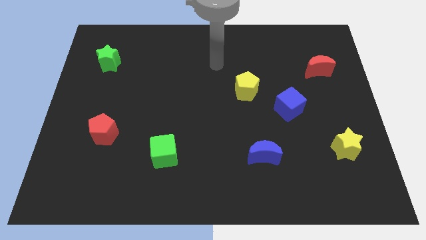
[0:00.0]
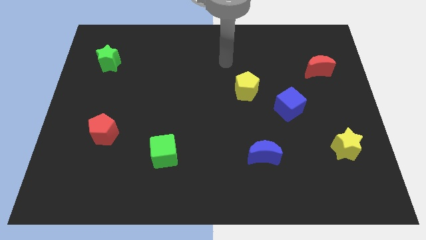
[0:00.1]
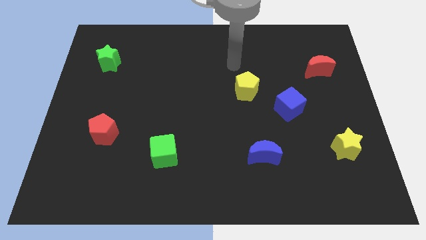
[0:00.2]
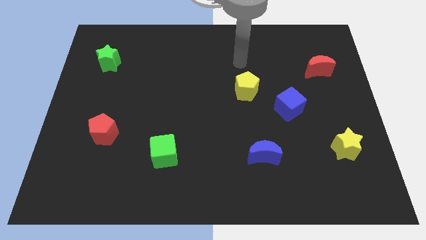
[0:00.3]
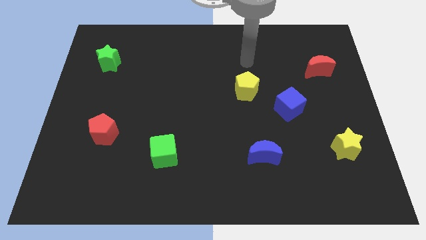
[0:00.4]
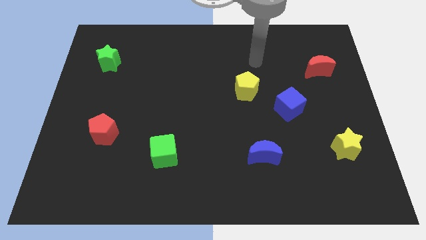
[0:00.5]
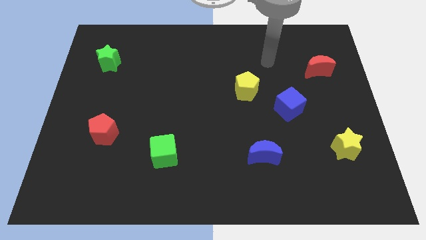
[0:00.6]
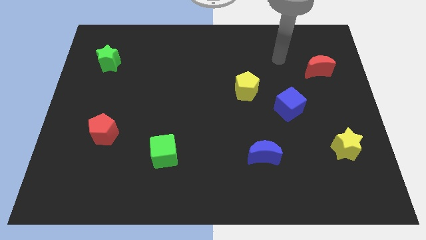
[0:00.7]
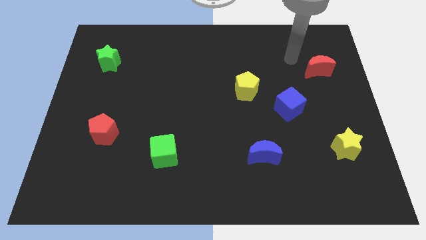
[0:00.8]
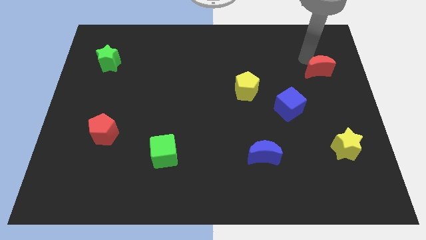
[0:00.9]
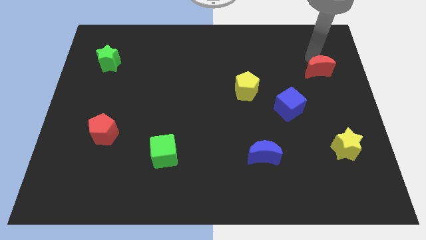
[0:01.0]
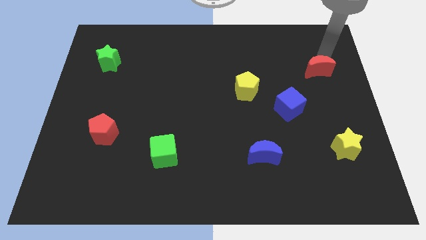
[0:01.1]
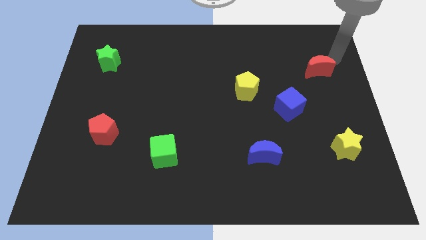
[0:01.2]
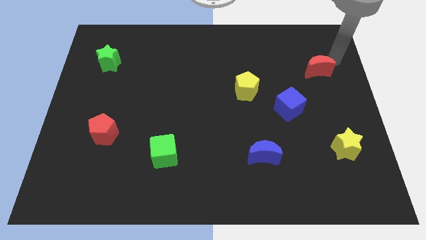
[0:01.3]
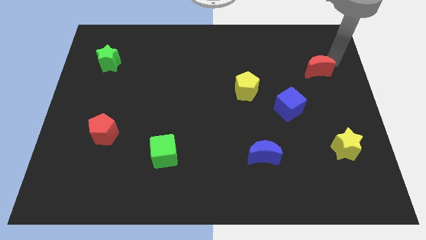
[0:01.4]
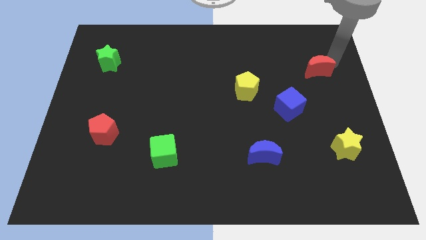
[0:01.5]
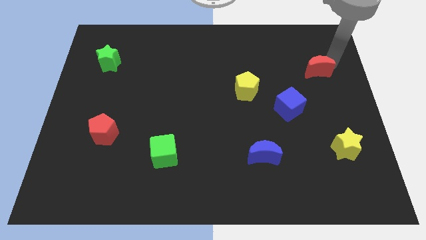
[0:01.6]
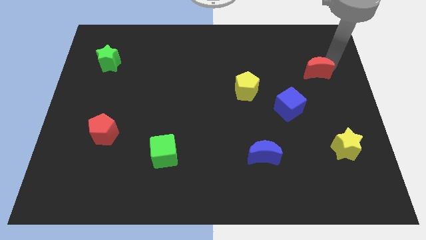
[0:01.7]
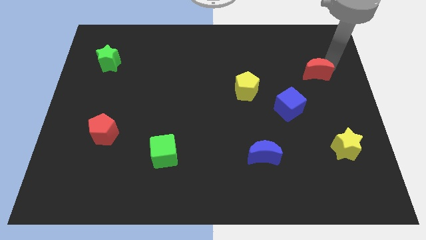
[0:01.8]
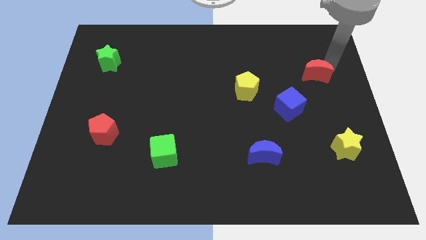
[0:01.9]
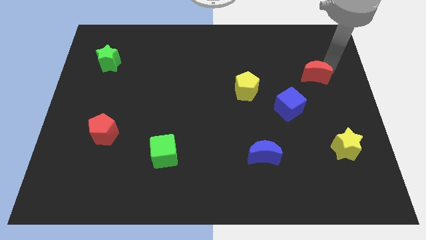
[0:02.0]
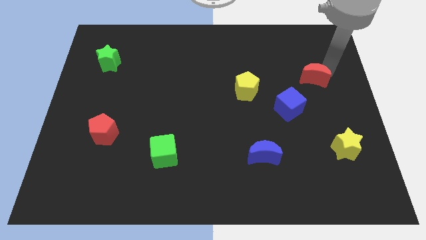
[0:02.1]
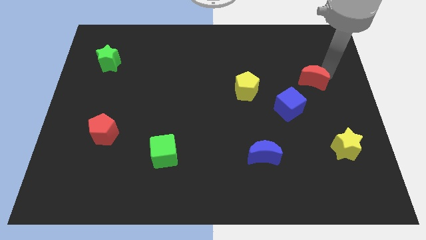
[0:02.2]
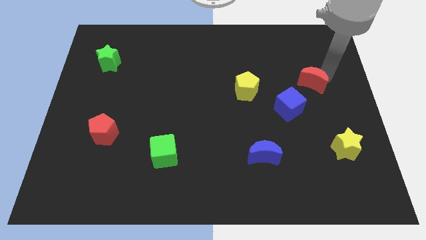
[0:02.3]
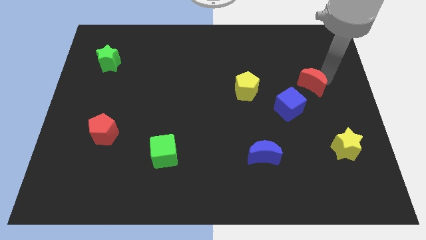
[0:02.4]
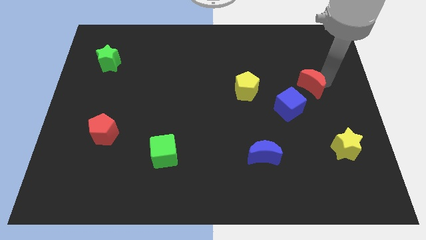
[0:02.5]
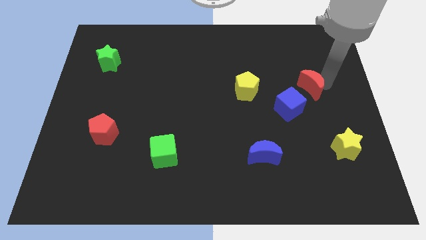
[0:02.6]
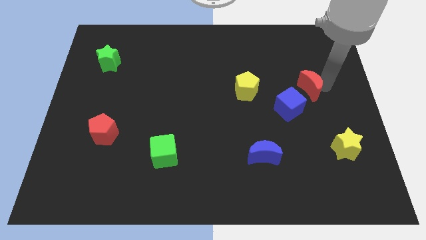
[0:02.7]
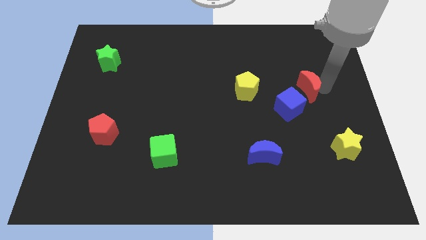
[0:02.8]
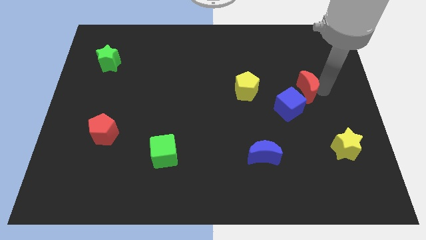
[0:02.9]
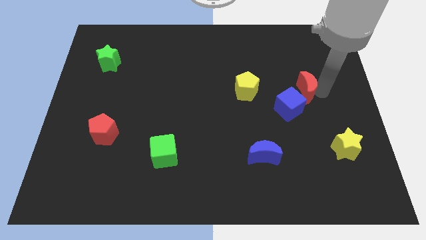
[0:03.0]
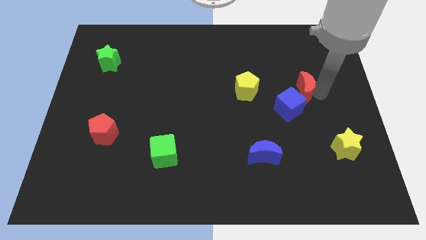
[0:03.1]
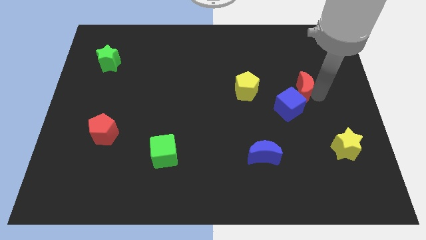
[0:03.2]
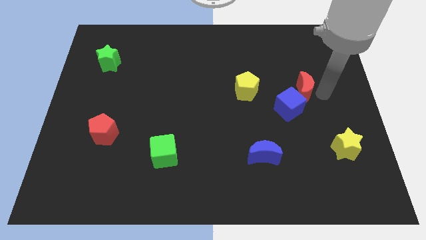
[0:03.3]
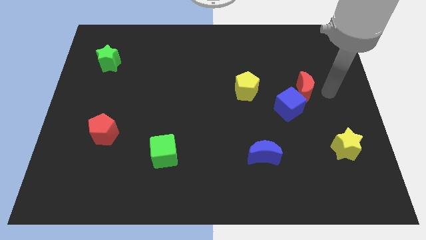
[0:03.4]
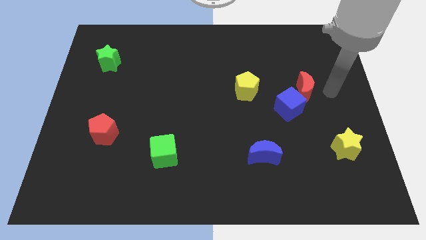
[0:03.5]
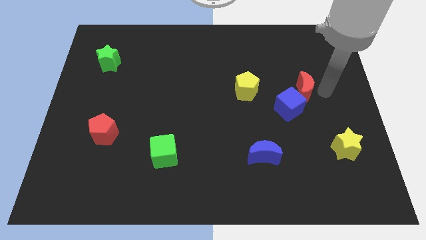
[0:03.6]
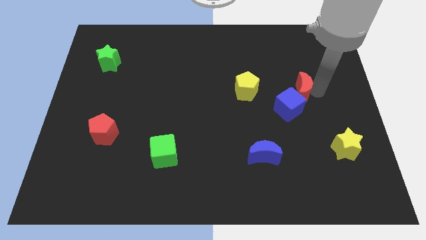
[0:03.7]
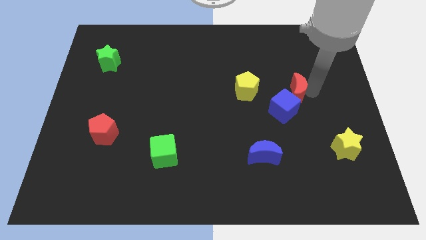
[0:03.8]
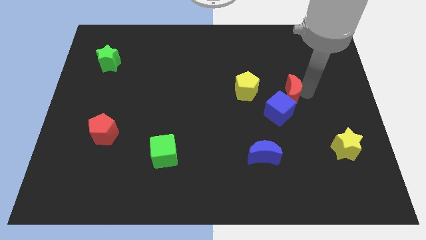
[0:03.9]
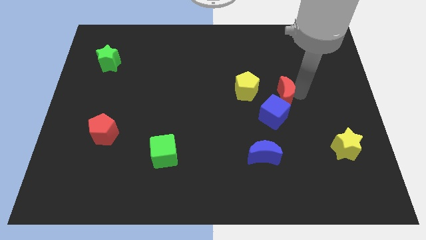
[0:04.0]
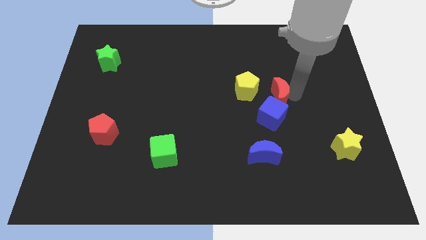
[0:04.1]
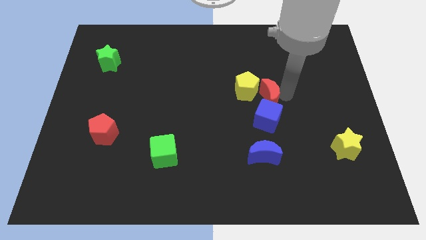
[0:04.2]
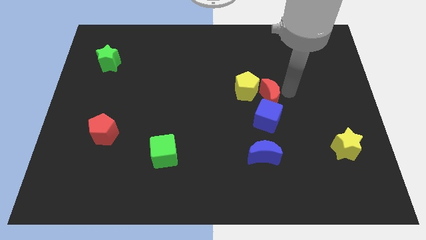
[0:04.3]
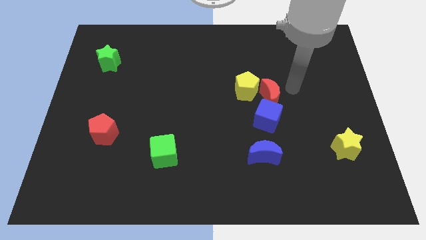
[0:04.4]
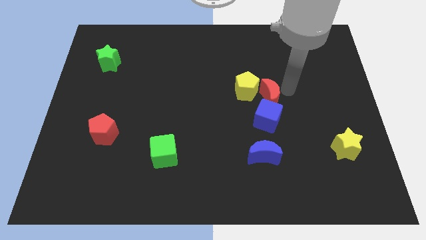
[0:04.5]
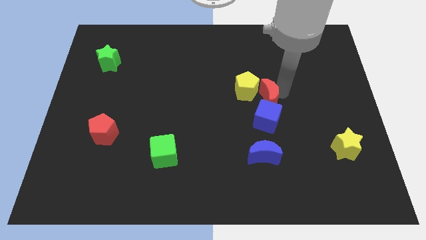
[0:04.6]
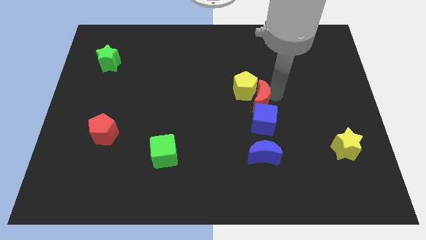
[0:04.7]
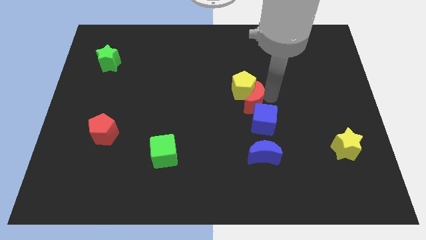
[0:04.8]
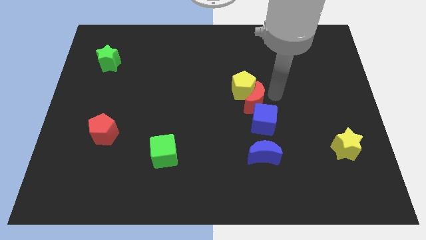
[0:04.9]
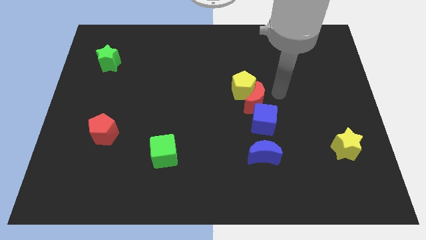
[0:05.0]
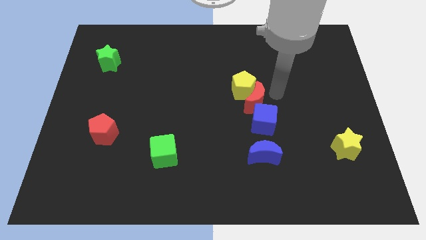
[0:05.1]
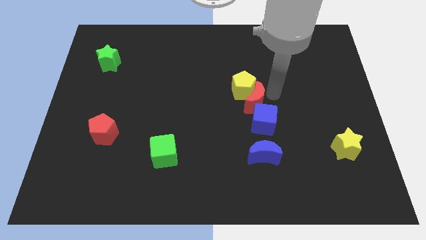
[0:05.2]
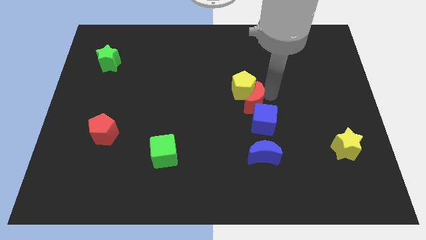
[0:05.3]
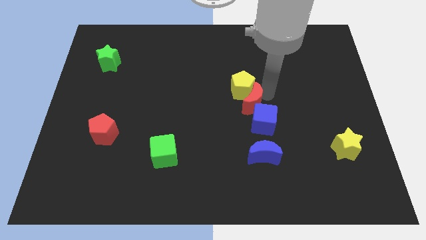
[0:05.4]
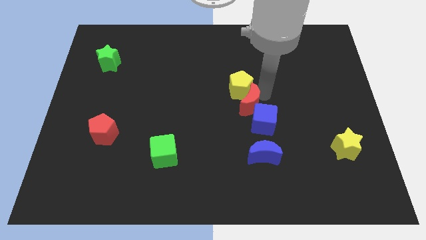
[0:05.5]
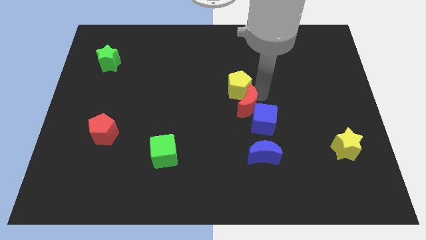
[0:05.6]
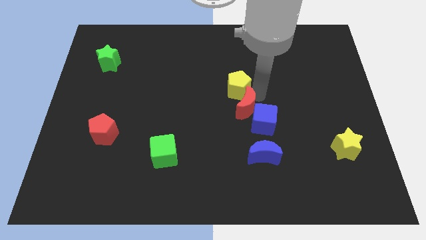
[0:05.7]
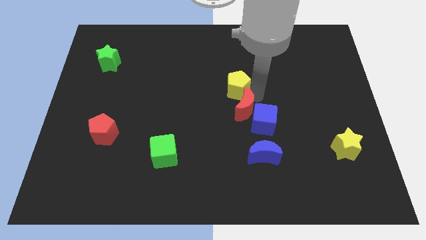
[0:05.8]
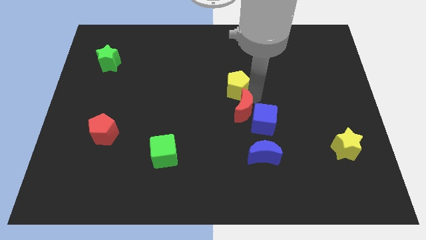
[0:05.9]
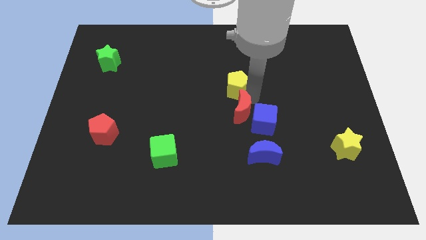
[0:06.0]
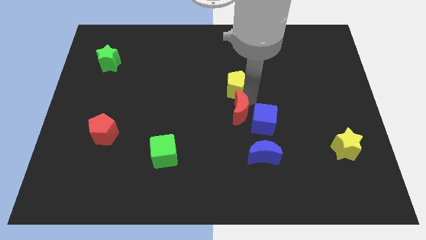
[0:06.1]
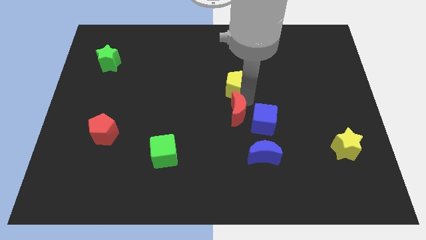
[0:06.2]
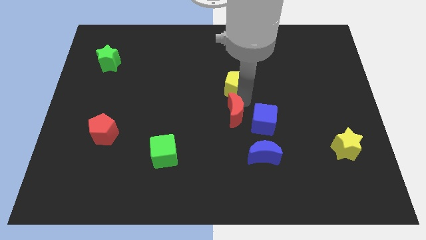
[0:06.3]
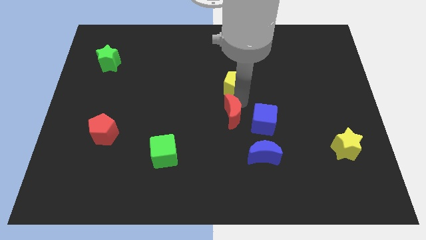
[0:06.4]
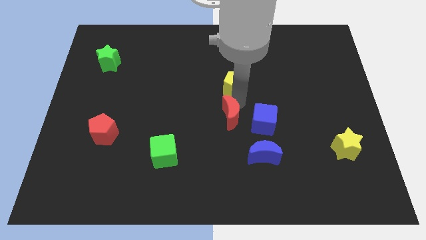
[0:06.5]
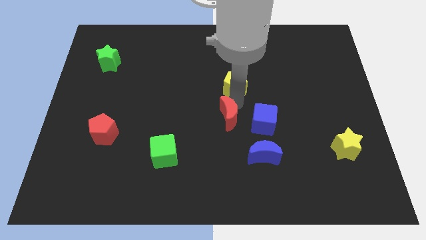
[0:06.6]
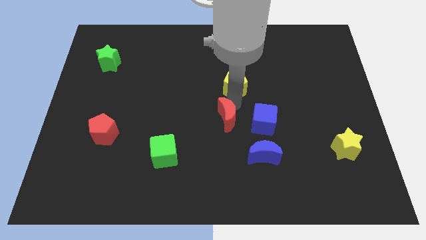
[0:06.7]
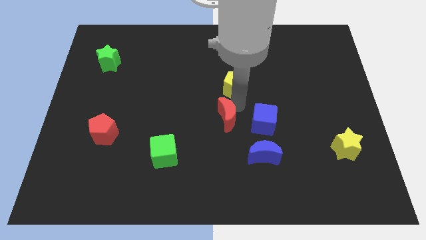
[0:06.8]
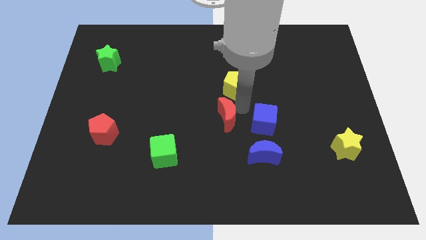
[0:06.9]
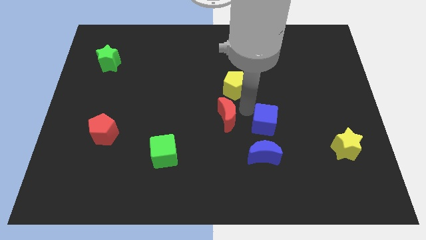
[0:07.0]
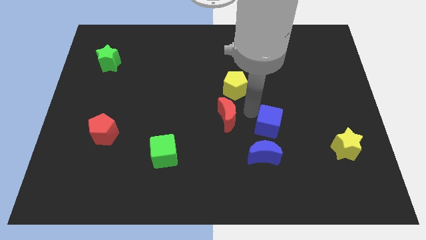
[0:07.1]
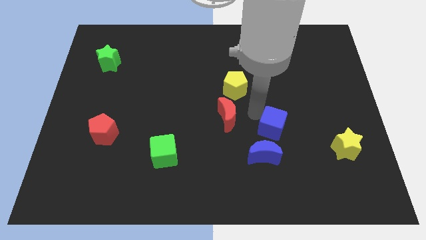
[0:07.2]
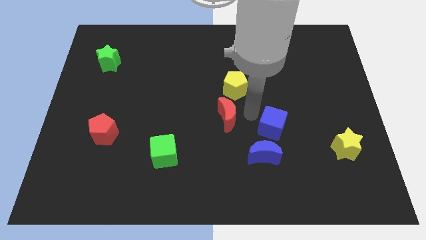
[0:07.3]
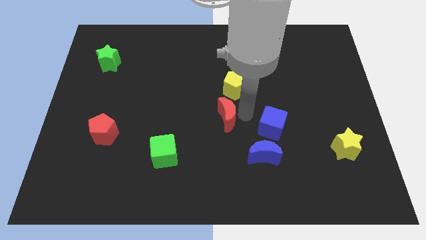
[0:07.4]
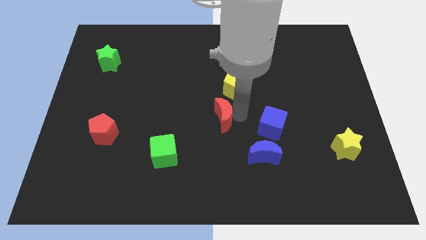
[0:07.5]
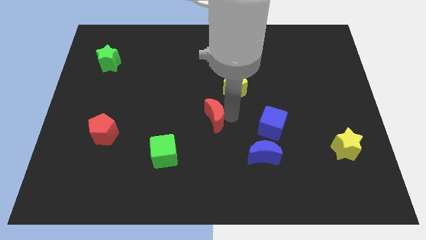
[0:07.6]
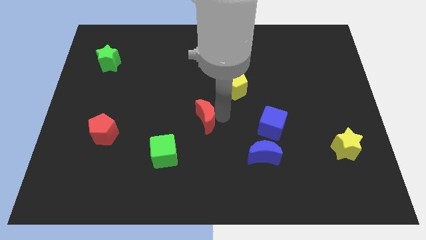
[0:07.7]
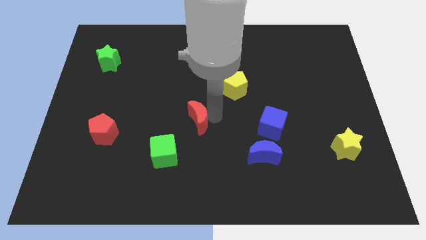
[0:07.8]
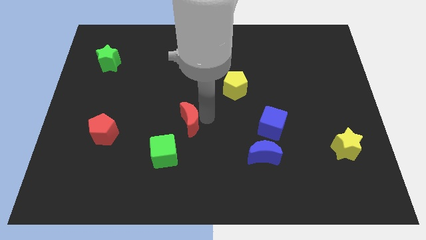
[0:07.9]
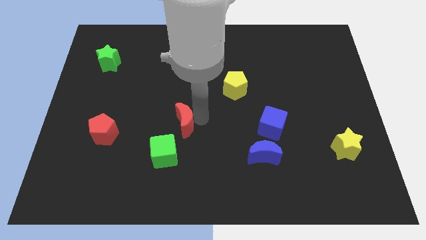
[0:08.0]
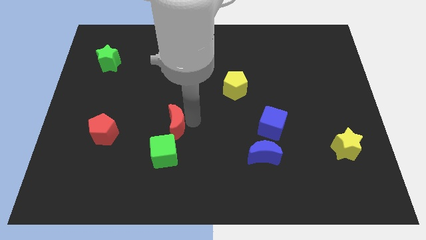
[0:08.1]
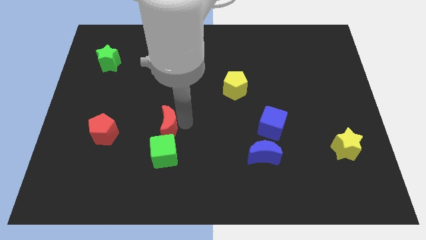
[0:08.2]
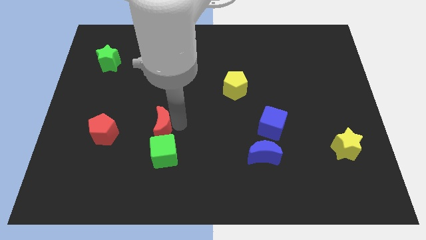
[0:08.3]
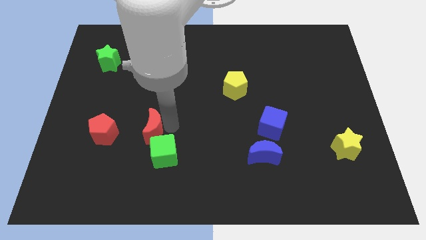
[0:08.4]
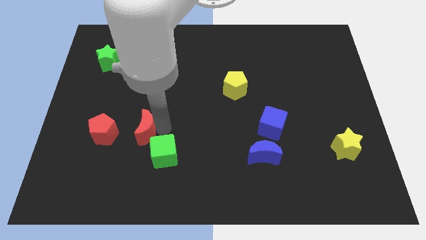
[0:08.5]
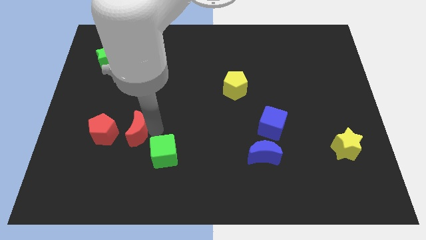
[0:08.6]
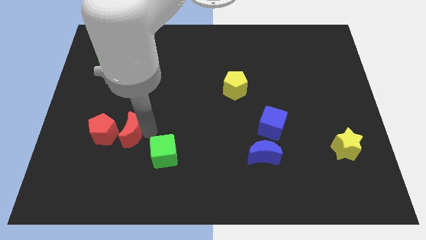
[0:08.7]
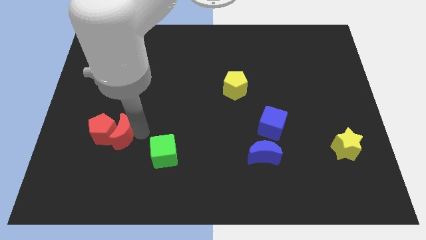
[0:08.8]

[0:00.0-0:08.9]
push the red moon to the red pentagon
